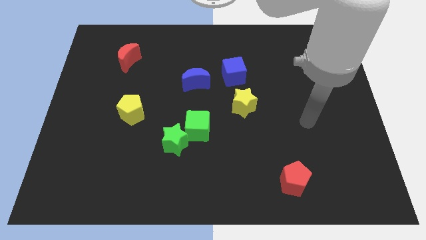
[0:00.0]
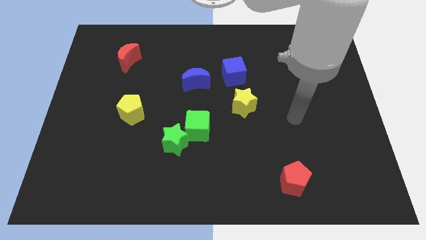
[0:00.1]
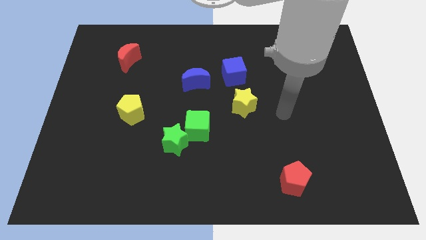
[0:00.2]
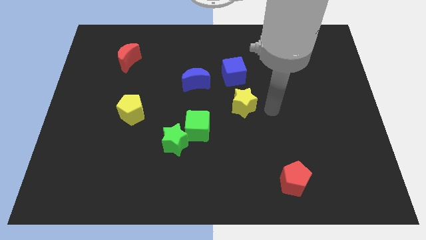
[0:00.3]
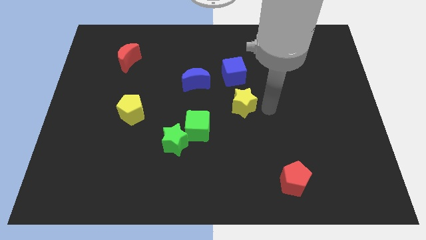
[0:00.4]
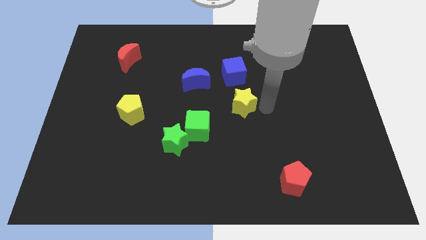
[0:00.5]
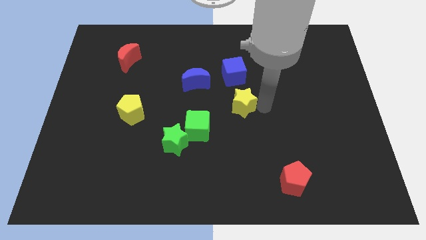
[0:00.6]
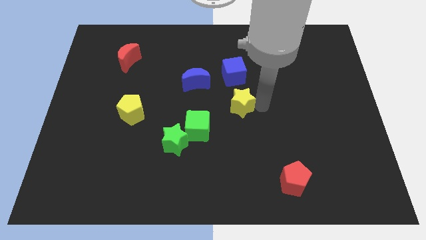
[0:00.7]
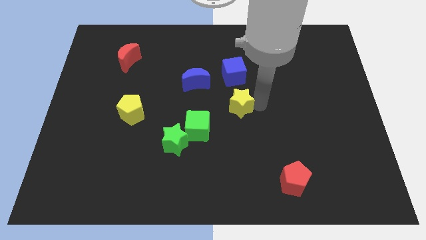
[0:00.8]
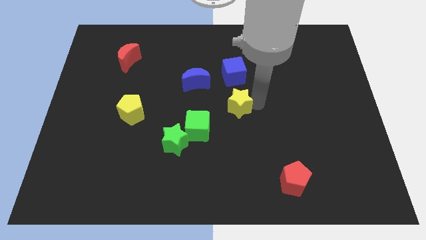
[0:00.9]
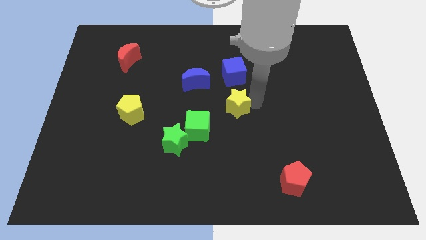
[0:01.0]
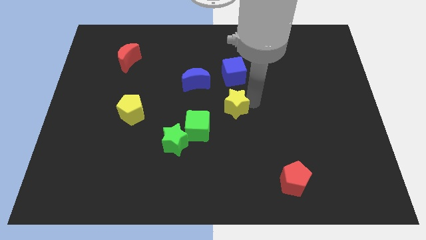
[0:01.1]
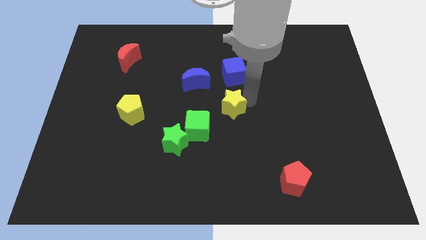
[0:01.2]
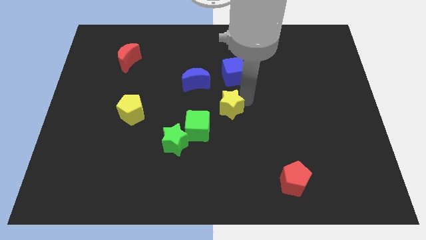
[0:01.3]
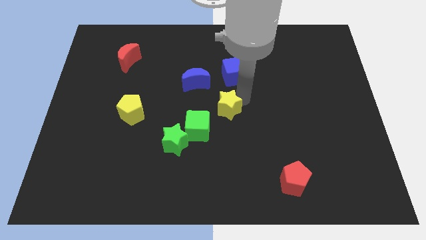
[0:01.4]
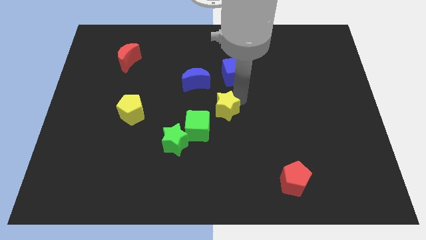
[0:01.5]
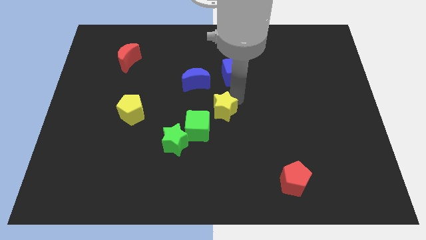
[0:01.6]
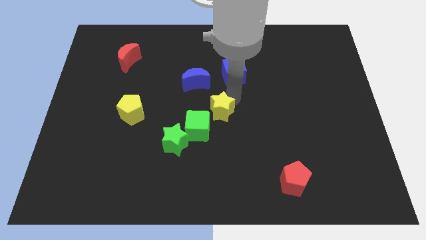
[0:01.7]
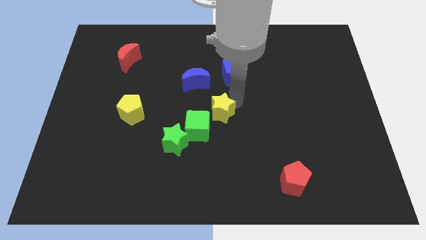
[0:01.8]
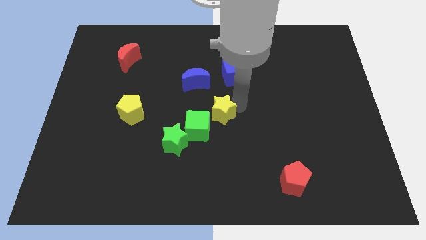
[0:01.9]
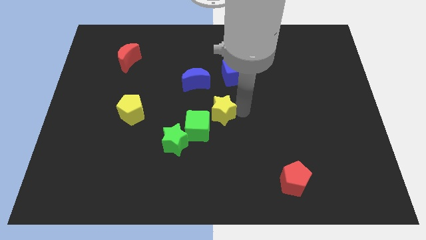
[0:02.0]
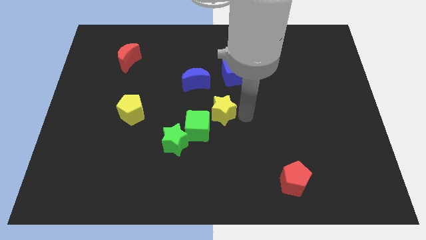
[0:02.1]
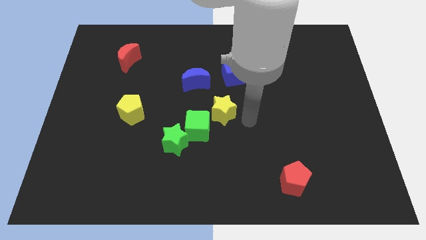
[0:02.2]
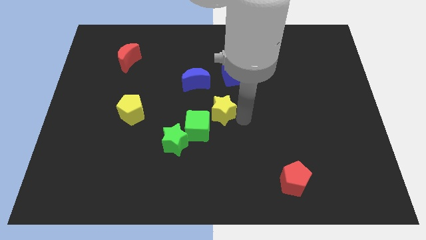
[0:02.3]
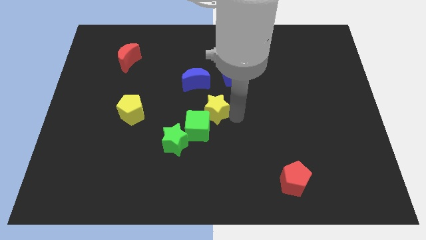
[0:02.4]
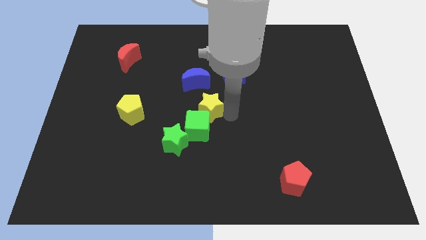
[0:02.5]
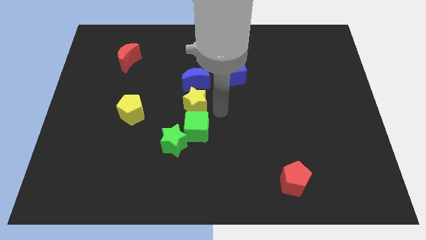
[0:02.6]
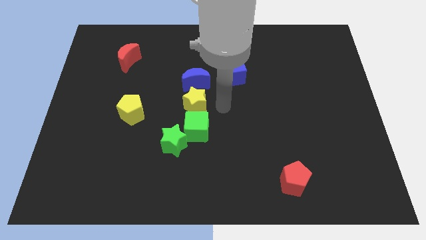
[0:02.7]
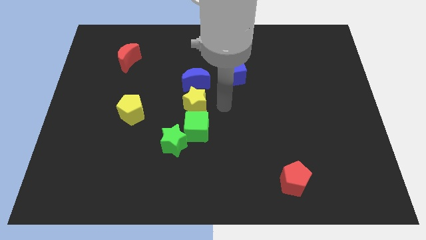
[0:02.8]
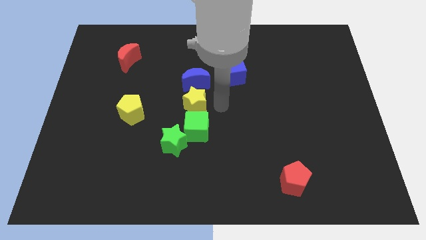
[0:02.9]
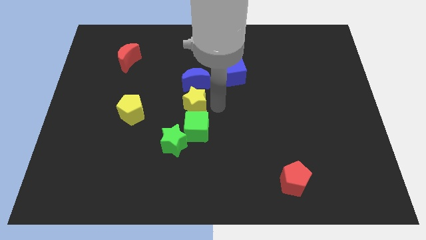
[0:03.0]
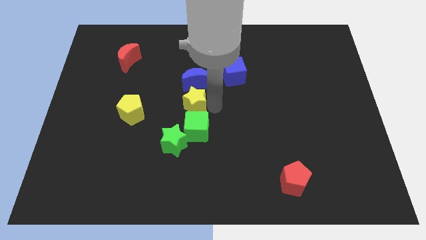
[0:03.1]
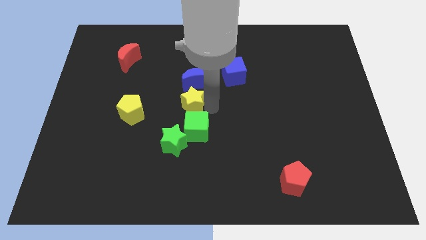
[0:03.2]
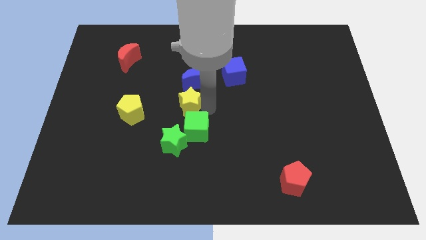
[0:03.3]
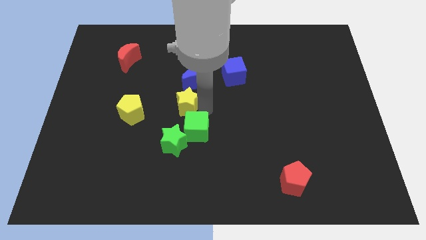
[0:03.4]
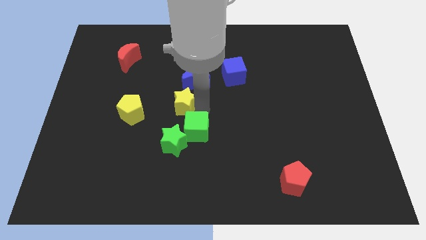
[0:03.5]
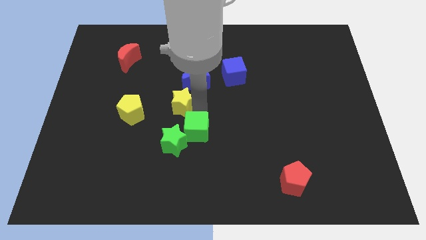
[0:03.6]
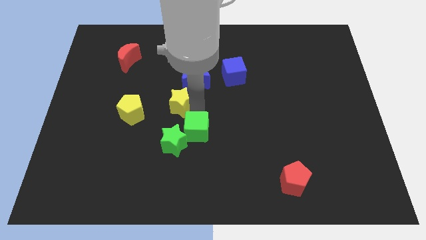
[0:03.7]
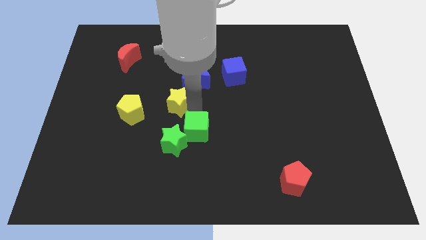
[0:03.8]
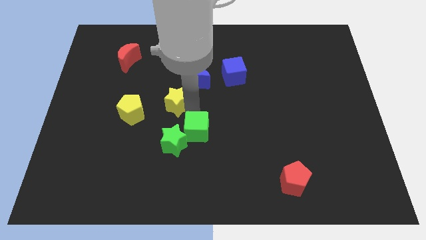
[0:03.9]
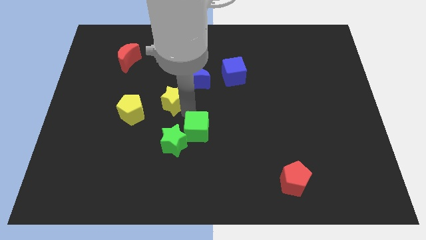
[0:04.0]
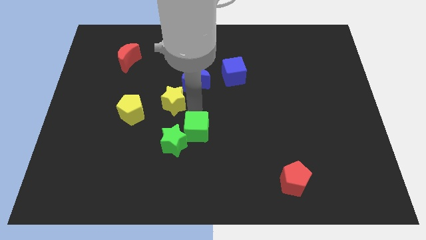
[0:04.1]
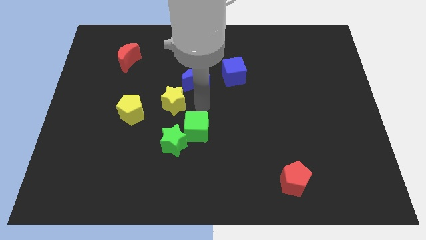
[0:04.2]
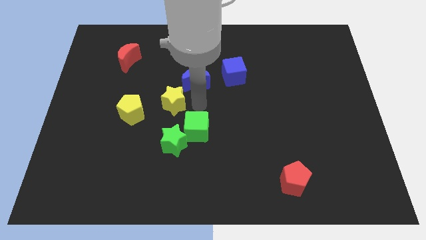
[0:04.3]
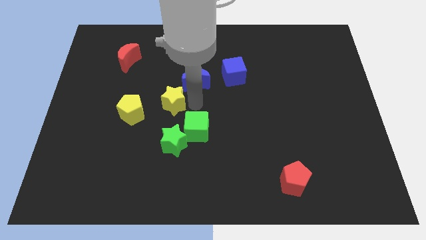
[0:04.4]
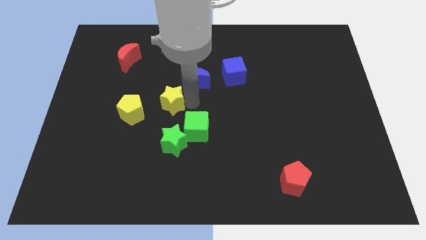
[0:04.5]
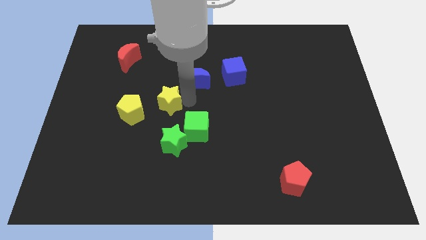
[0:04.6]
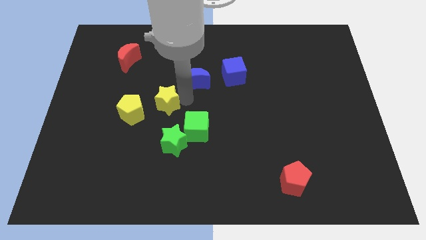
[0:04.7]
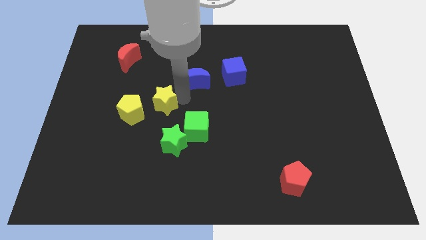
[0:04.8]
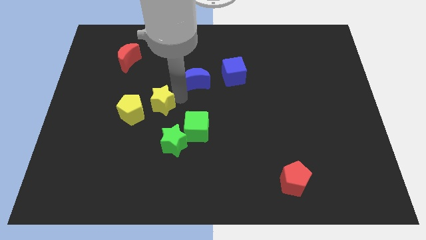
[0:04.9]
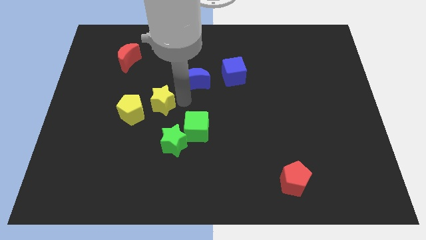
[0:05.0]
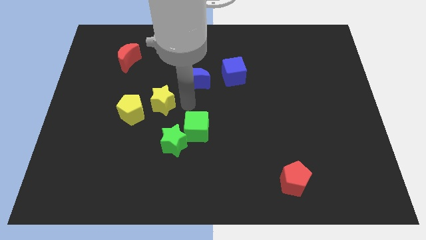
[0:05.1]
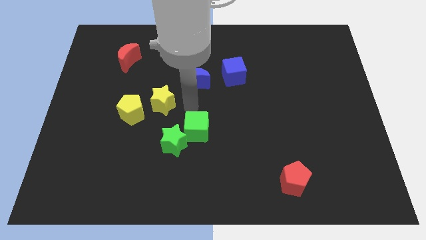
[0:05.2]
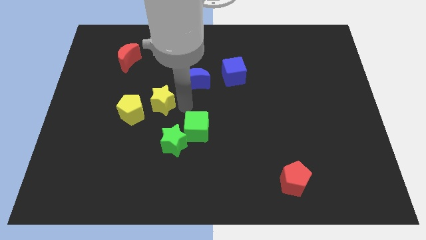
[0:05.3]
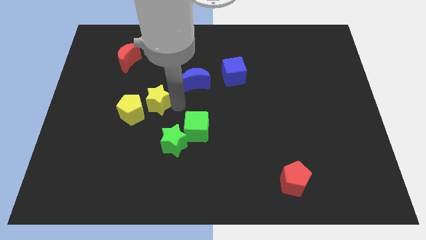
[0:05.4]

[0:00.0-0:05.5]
slide the yellow star to the left

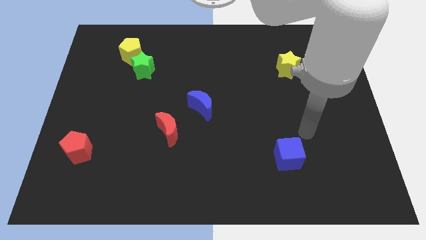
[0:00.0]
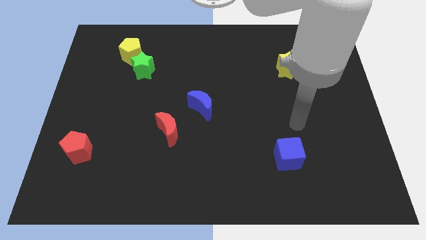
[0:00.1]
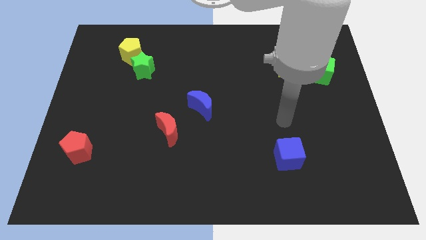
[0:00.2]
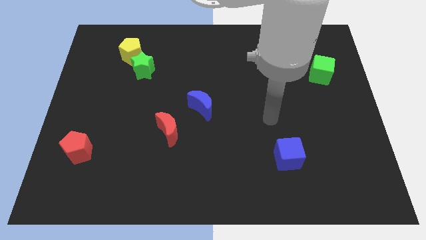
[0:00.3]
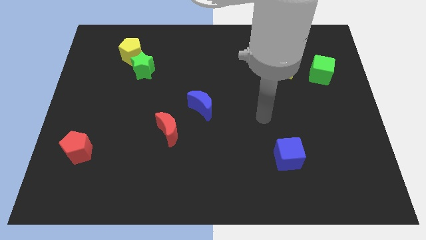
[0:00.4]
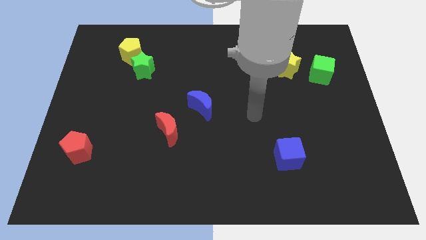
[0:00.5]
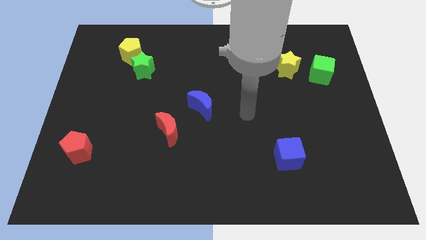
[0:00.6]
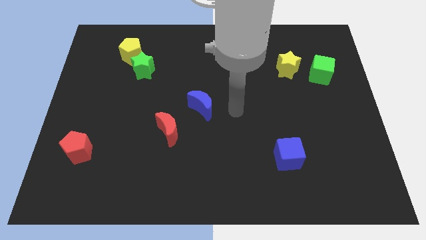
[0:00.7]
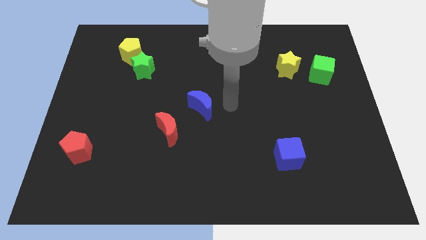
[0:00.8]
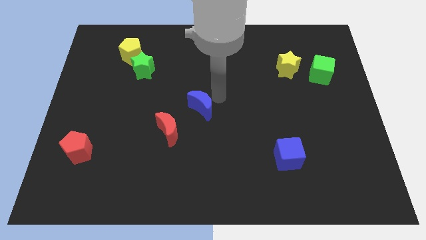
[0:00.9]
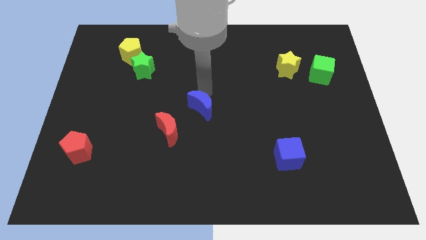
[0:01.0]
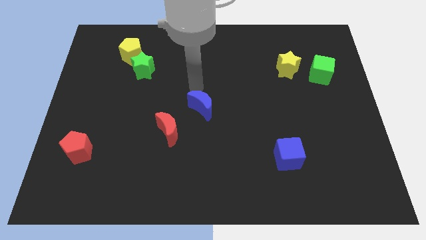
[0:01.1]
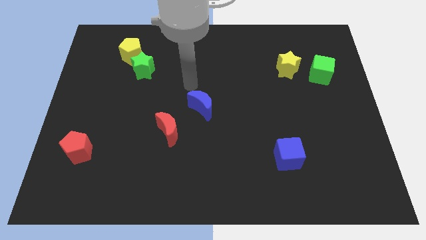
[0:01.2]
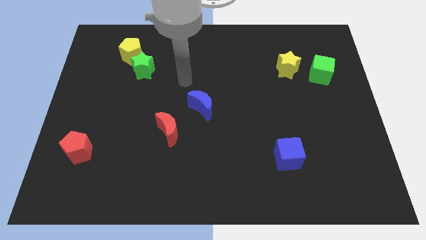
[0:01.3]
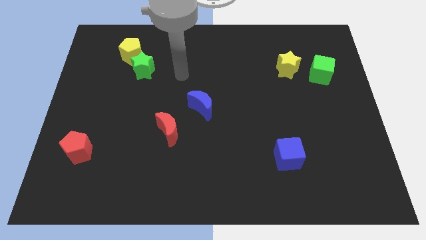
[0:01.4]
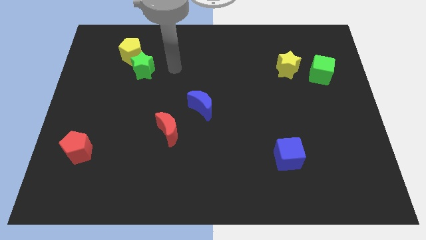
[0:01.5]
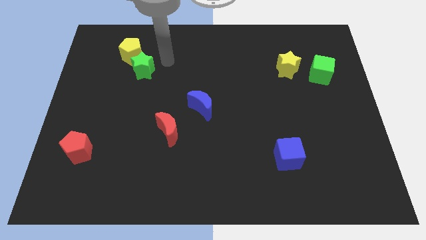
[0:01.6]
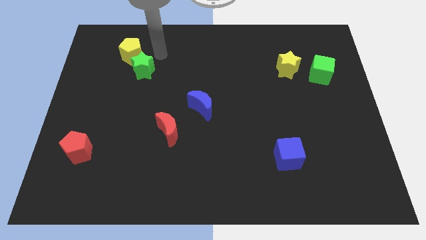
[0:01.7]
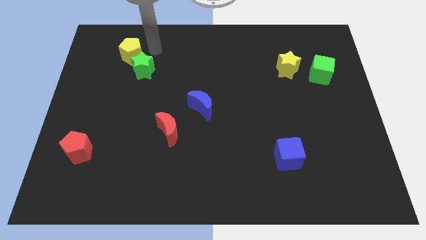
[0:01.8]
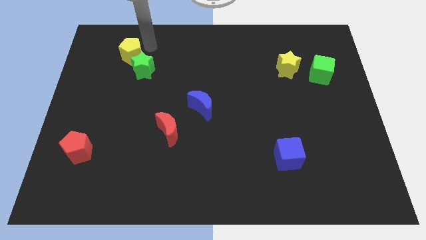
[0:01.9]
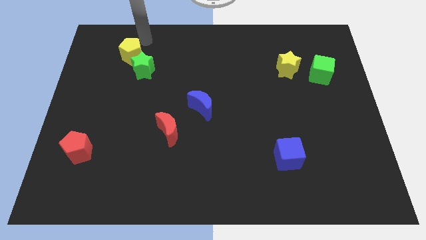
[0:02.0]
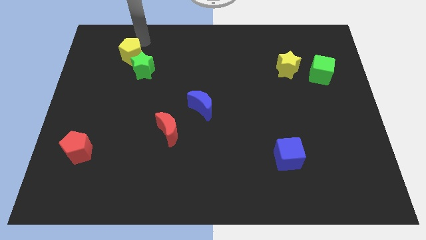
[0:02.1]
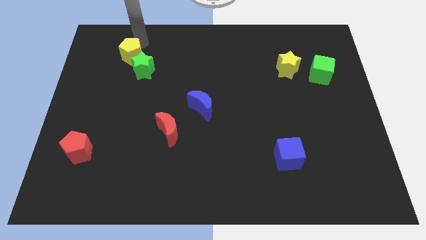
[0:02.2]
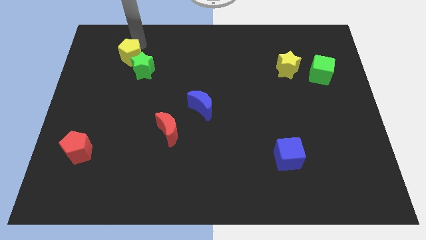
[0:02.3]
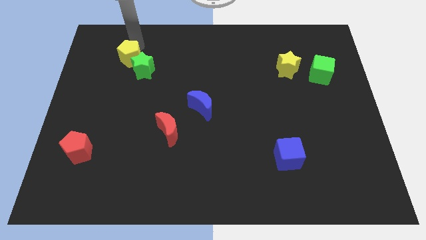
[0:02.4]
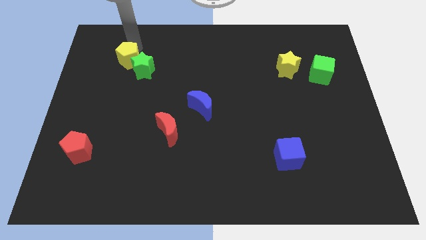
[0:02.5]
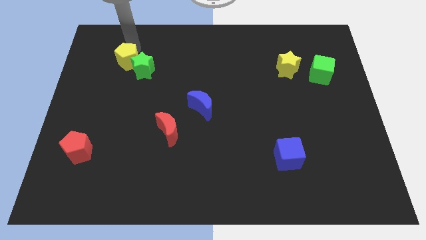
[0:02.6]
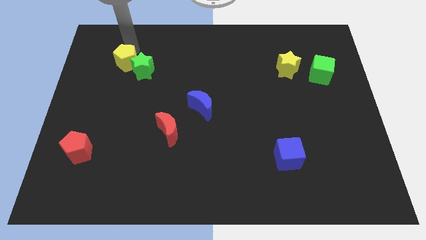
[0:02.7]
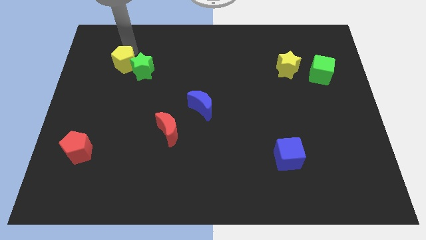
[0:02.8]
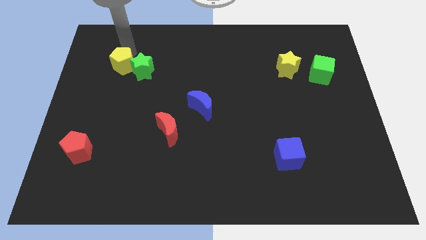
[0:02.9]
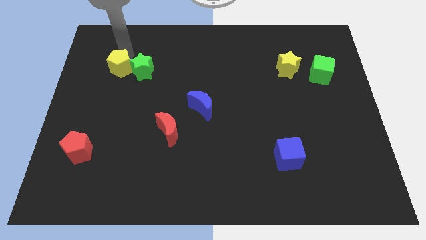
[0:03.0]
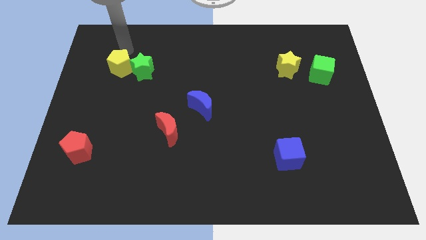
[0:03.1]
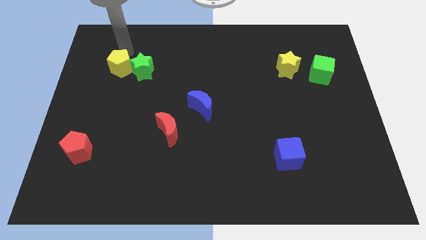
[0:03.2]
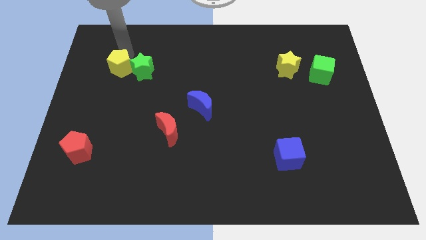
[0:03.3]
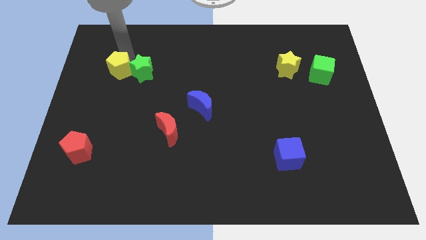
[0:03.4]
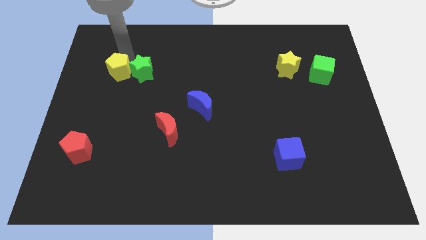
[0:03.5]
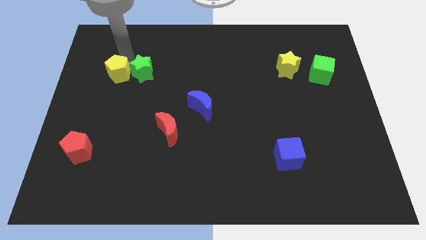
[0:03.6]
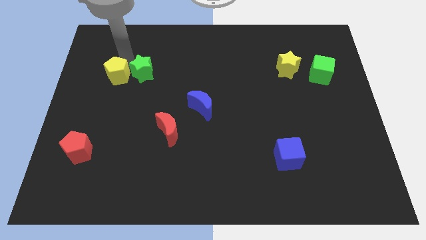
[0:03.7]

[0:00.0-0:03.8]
slightly slide the yellow pentagon down
